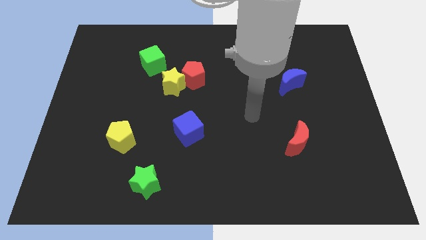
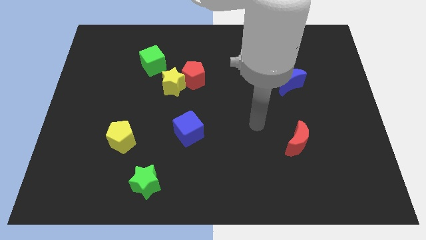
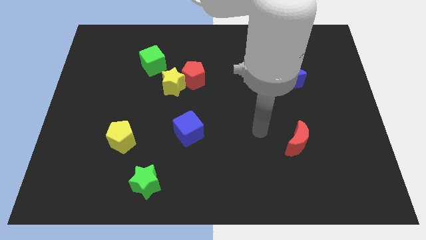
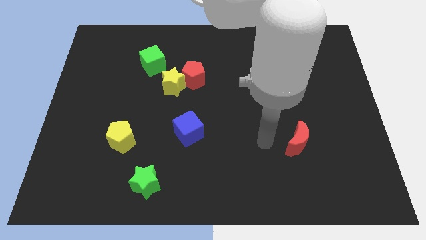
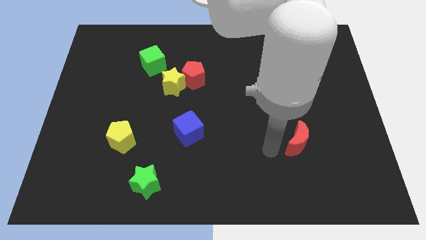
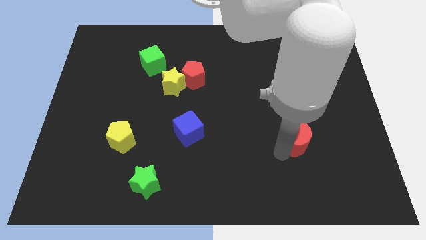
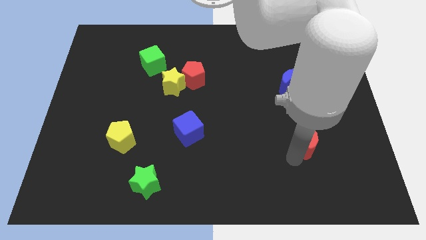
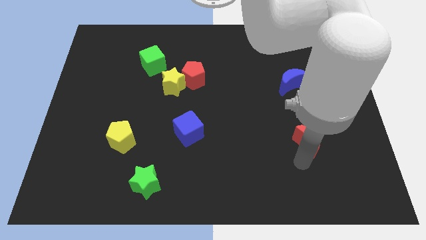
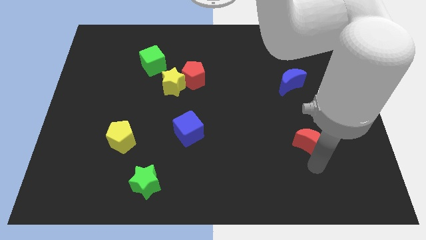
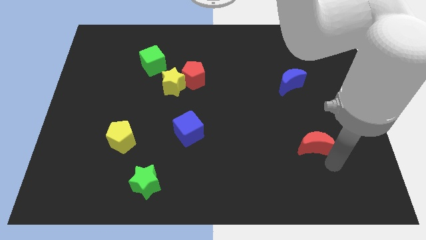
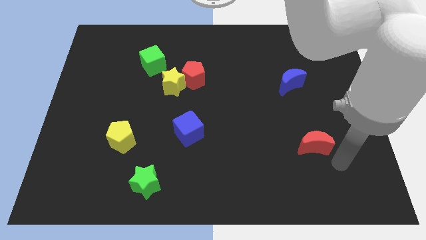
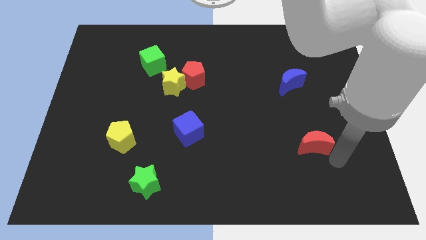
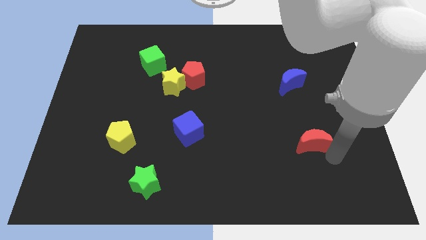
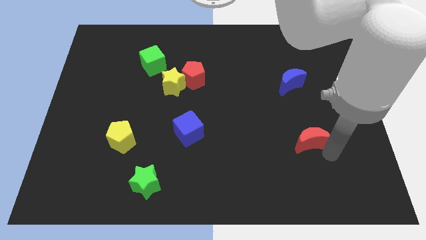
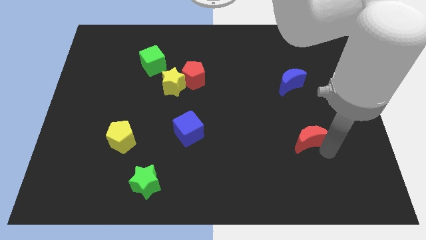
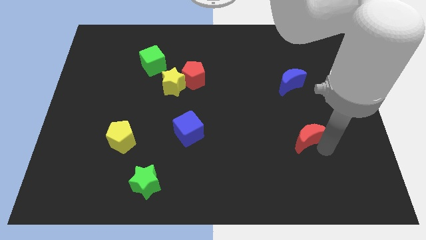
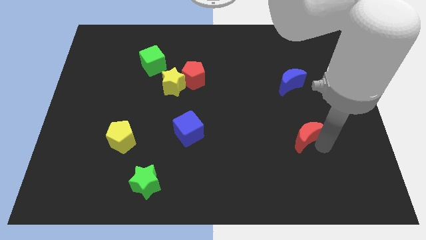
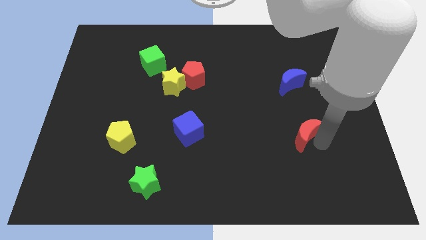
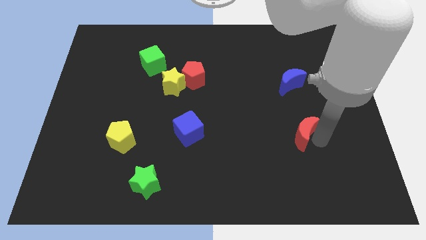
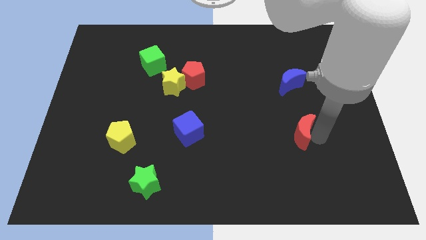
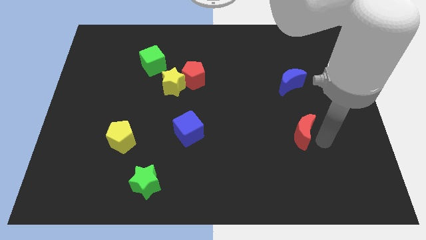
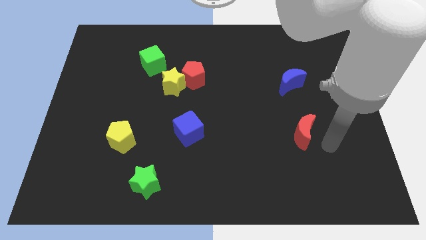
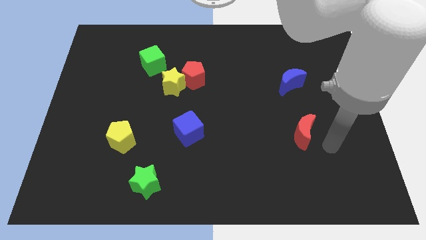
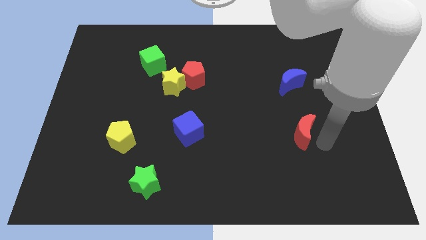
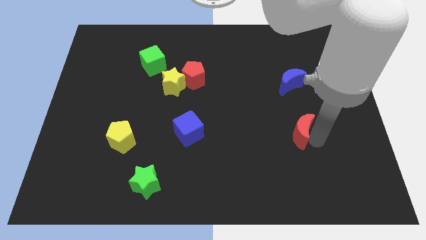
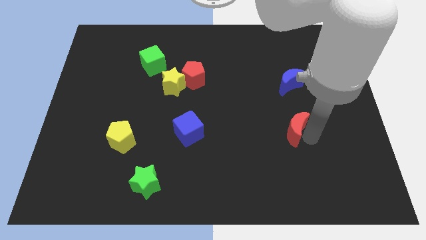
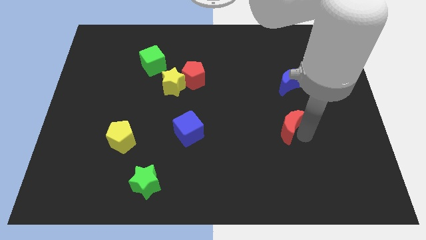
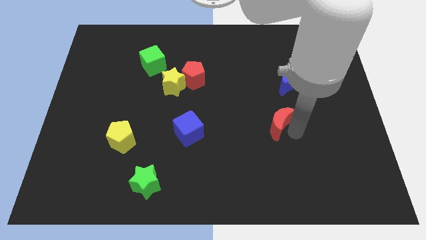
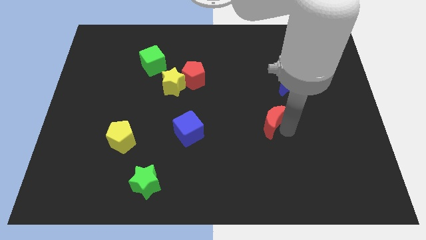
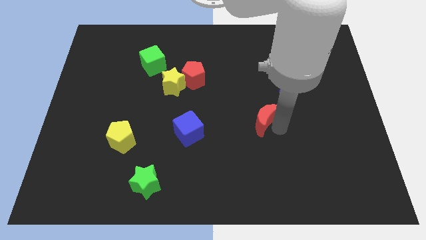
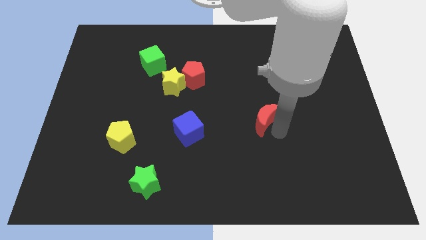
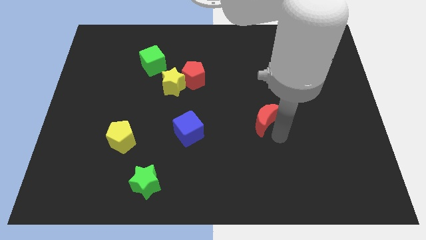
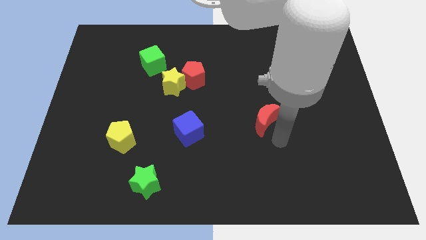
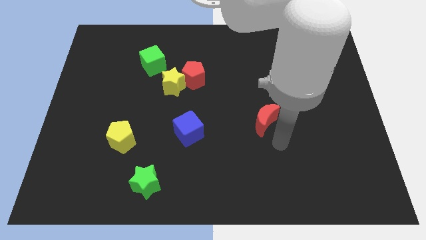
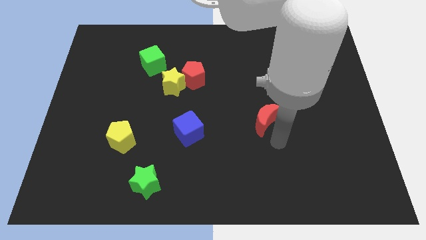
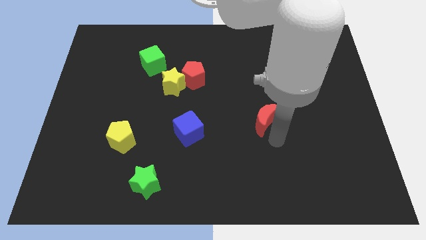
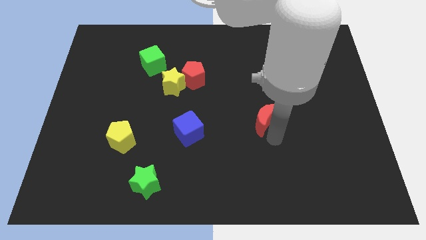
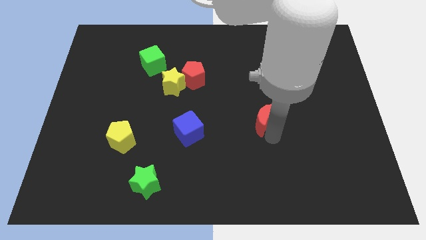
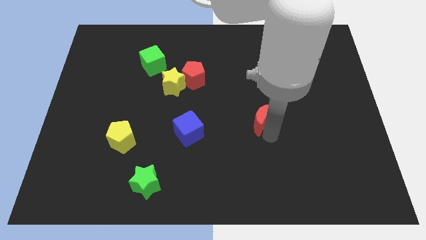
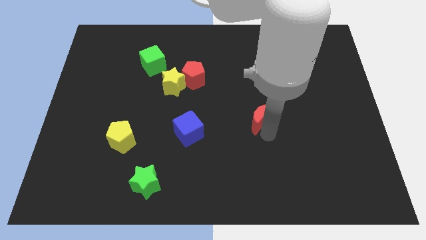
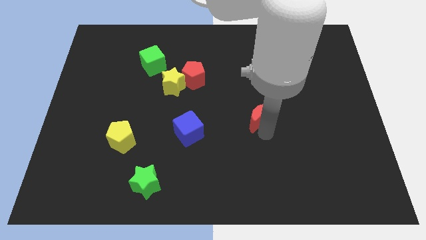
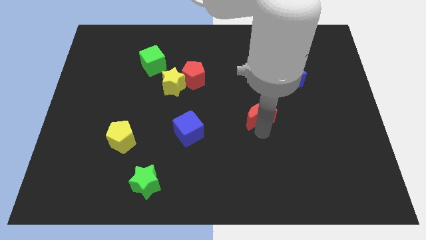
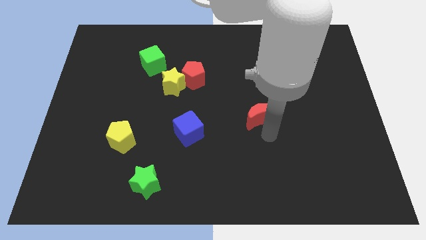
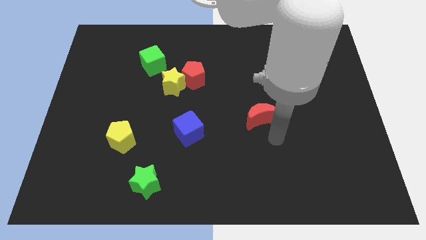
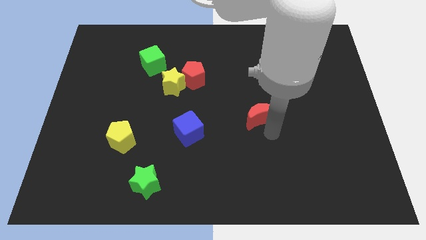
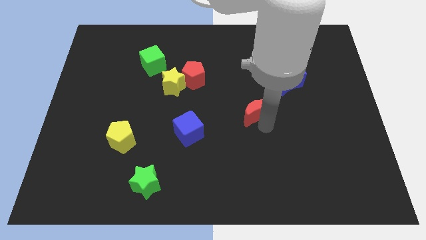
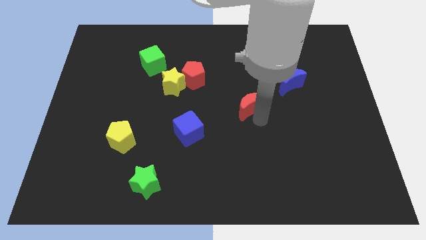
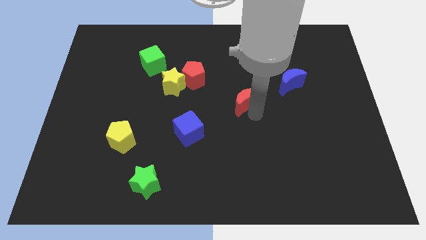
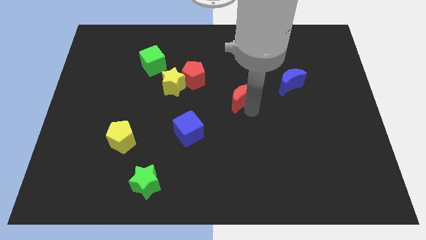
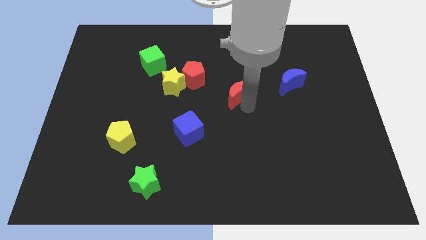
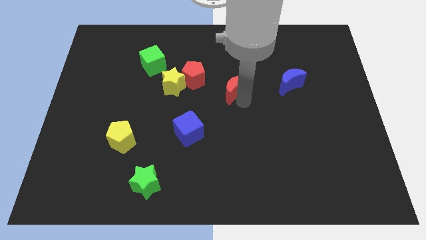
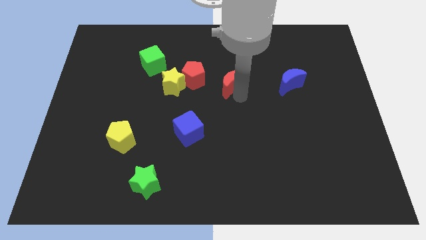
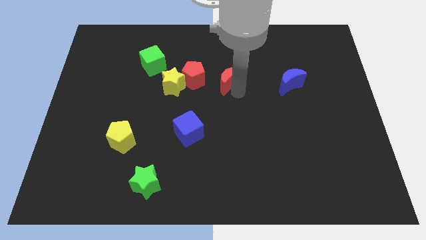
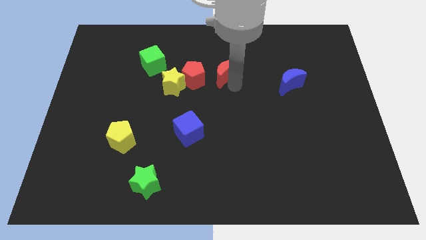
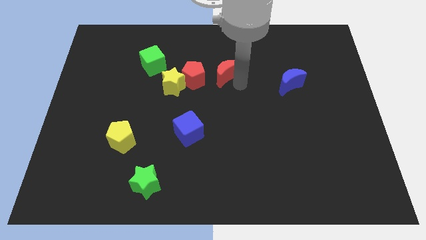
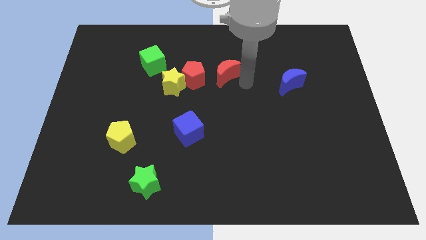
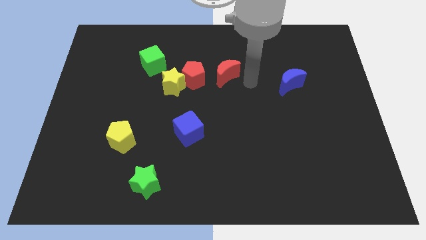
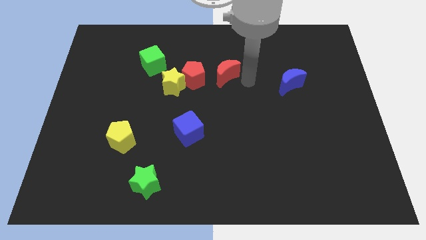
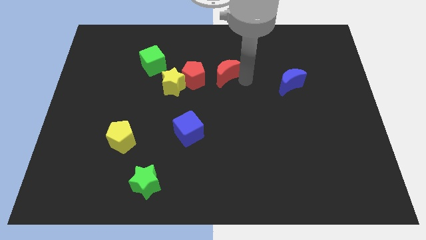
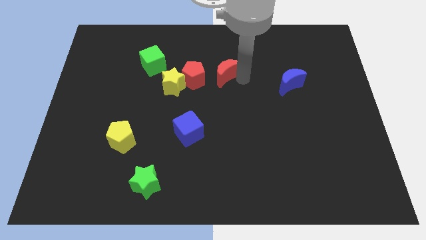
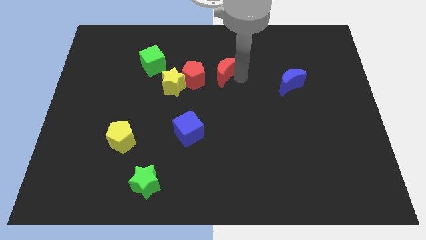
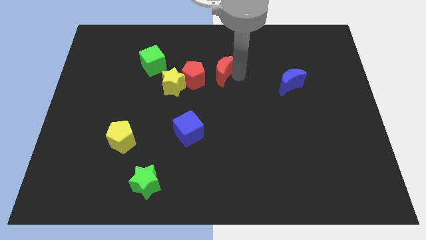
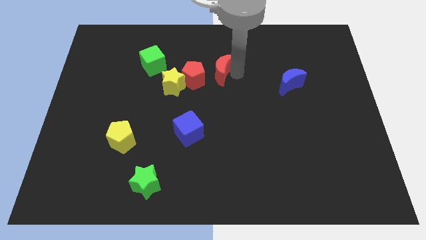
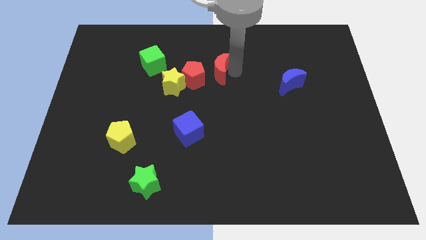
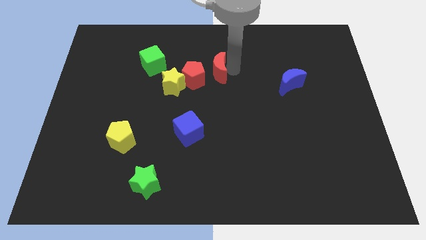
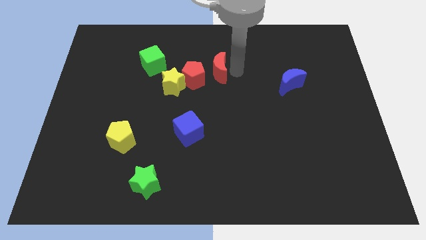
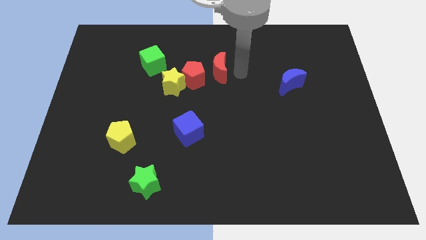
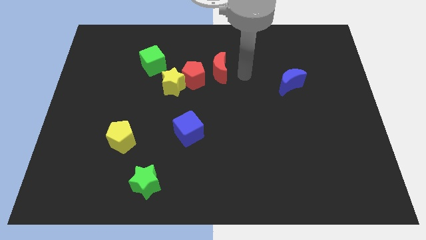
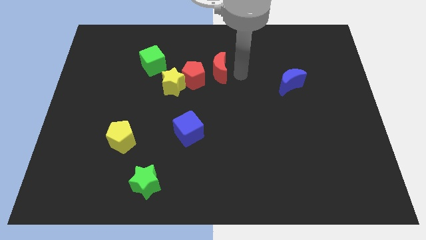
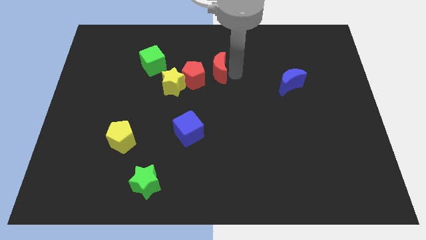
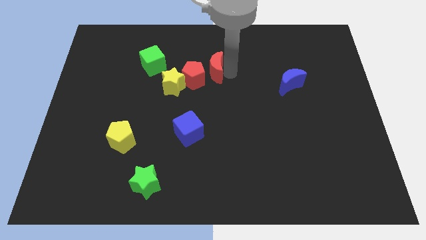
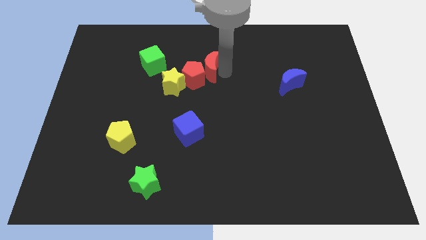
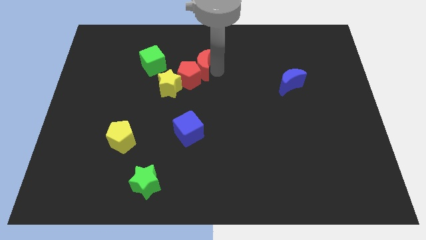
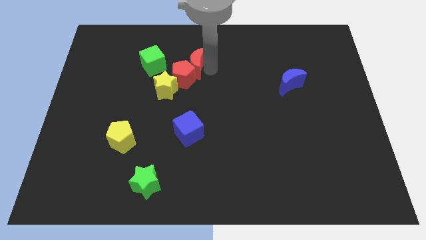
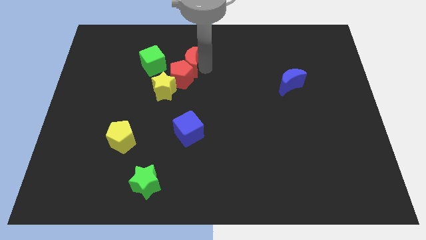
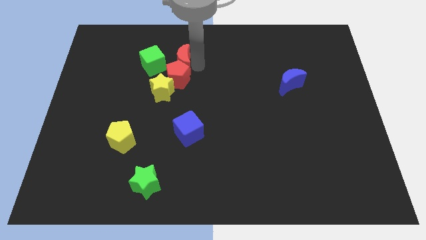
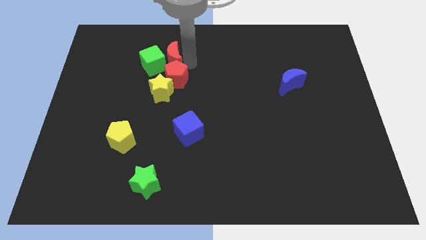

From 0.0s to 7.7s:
put the red moon towards the green cube
